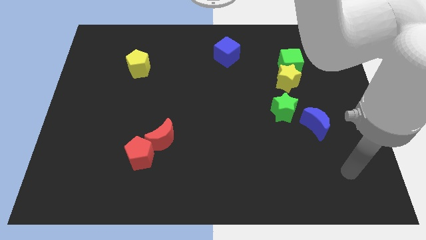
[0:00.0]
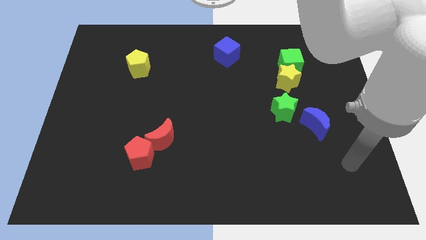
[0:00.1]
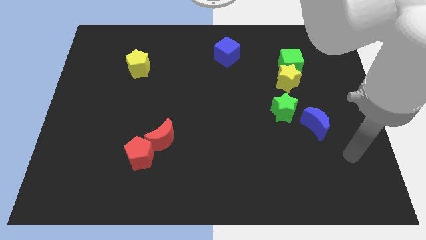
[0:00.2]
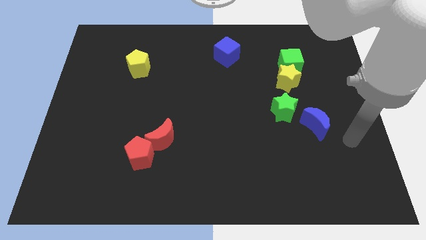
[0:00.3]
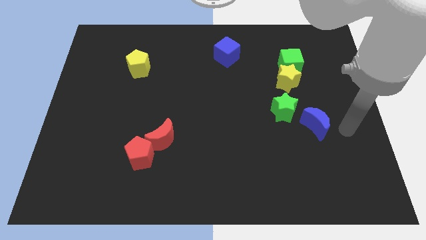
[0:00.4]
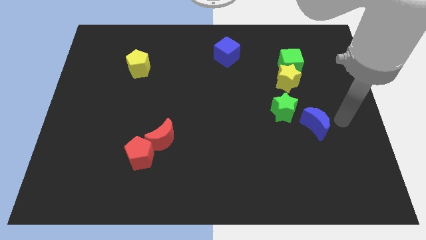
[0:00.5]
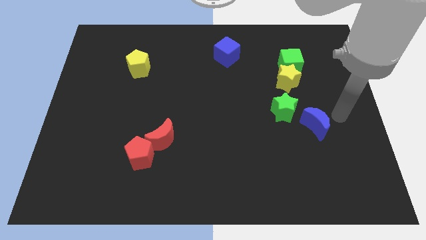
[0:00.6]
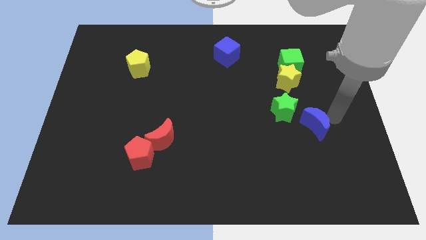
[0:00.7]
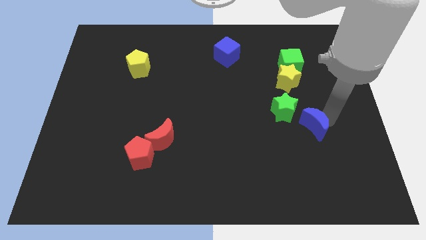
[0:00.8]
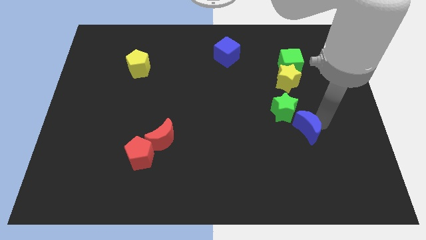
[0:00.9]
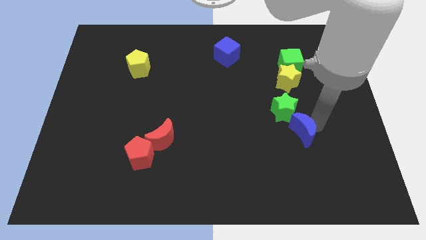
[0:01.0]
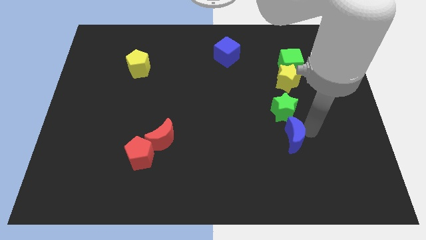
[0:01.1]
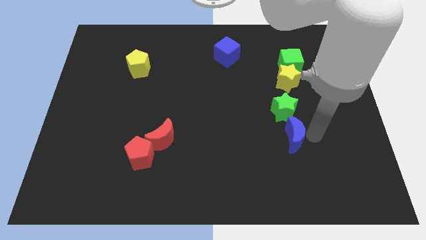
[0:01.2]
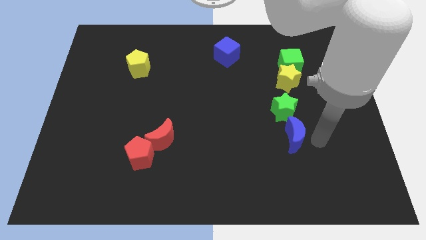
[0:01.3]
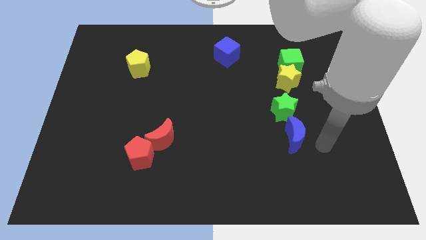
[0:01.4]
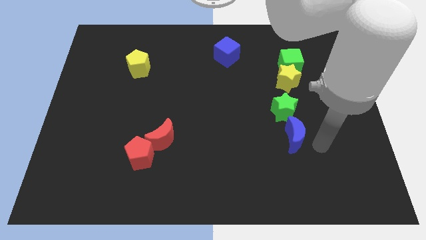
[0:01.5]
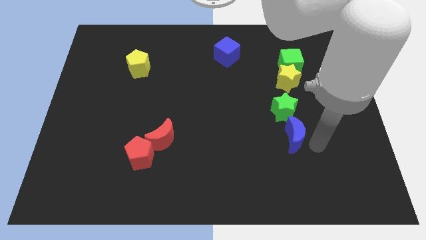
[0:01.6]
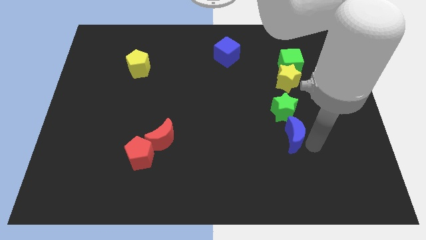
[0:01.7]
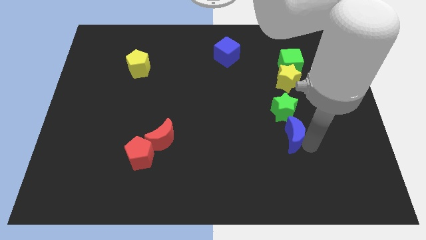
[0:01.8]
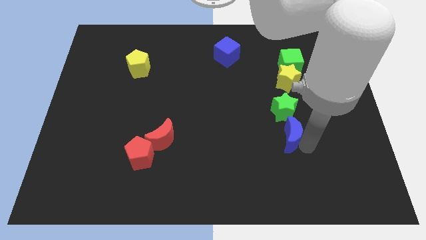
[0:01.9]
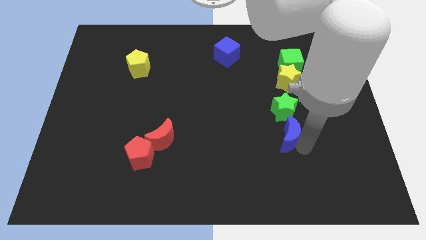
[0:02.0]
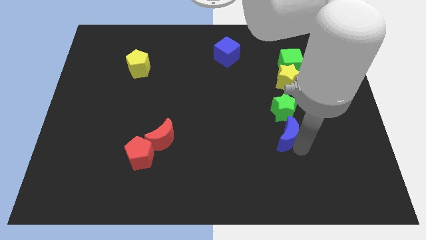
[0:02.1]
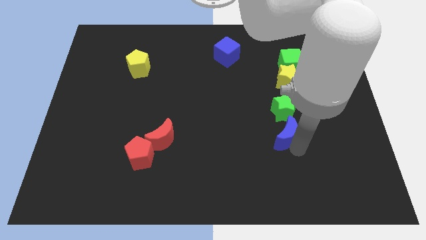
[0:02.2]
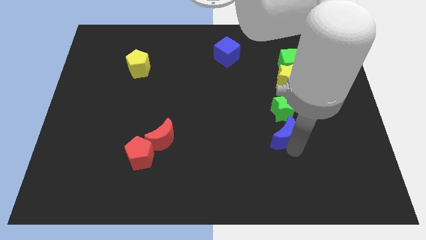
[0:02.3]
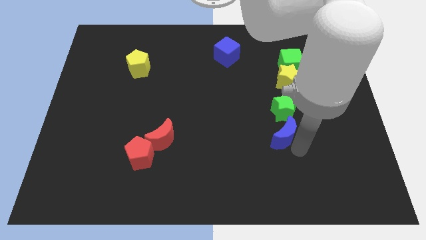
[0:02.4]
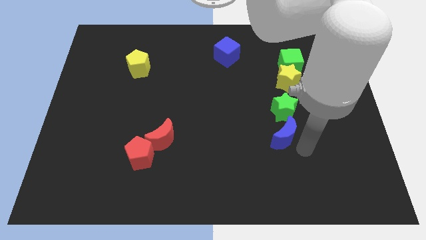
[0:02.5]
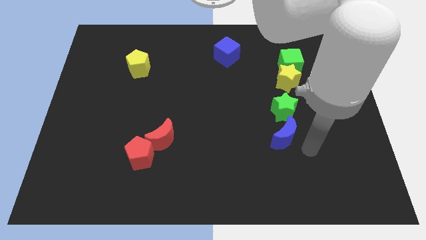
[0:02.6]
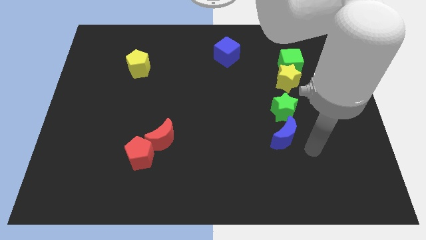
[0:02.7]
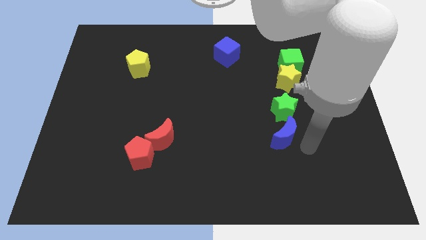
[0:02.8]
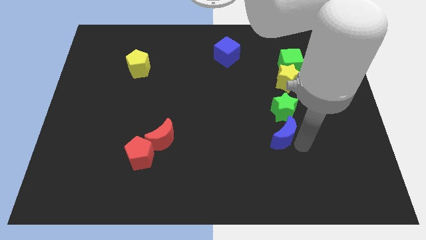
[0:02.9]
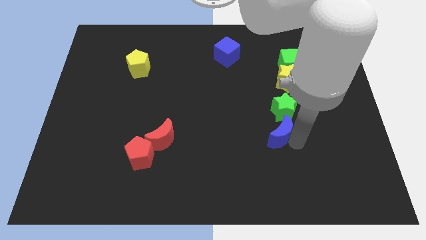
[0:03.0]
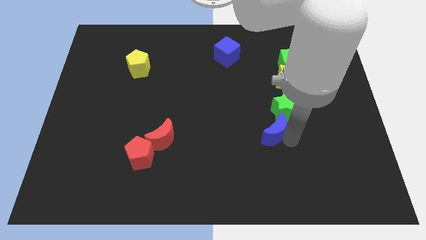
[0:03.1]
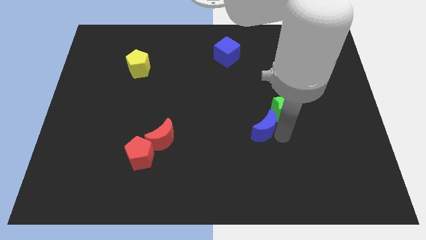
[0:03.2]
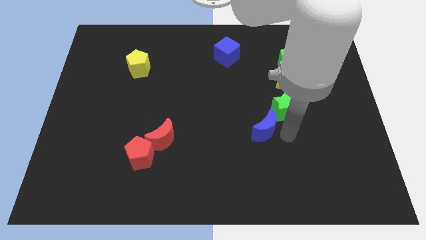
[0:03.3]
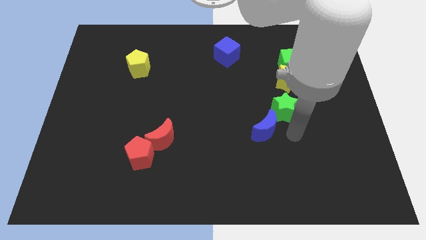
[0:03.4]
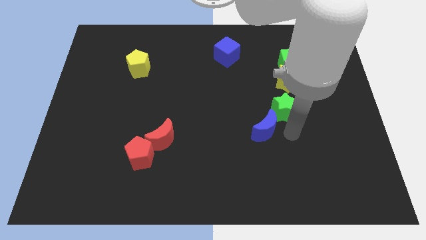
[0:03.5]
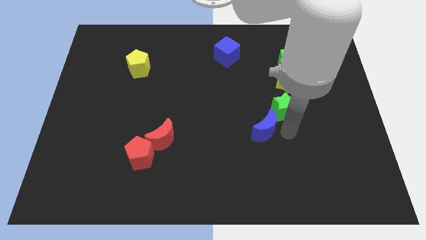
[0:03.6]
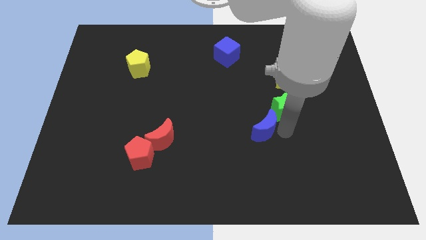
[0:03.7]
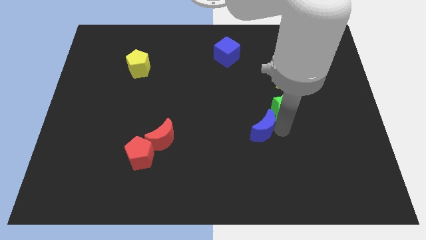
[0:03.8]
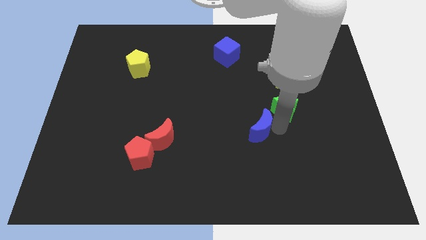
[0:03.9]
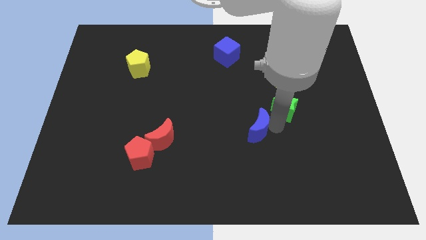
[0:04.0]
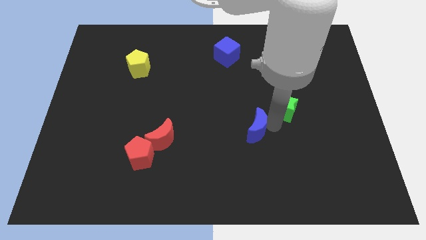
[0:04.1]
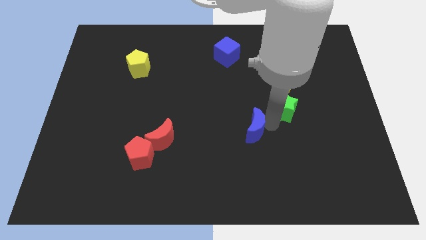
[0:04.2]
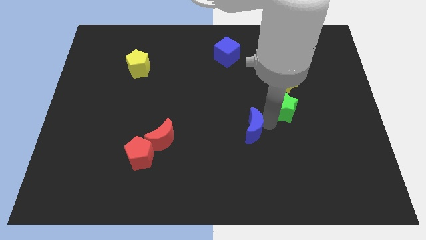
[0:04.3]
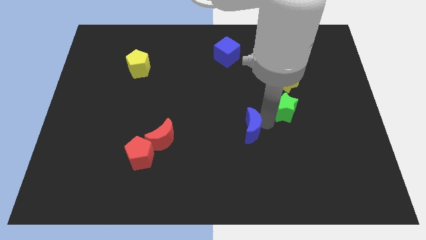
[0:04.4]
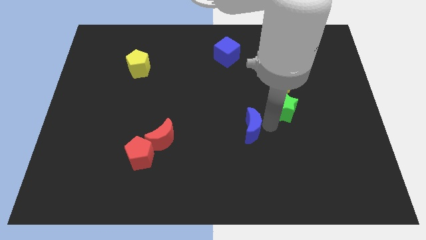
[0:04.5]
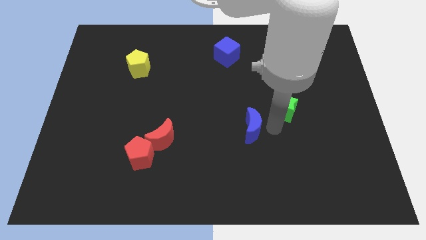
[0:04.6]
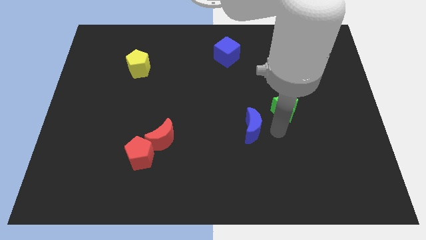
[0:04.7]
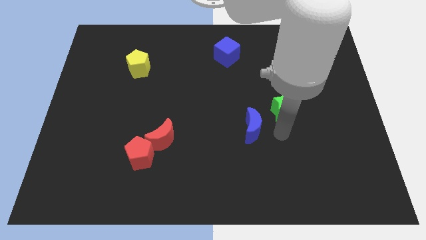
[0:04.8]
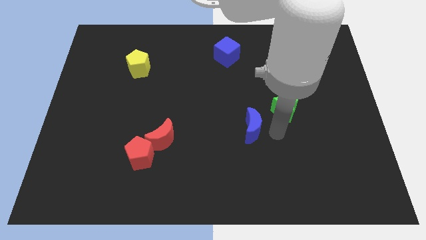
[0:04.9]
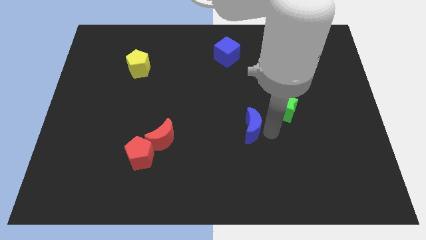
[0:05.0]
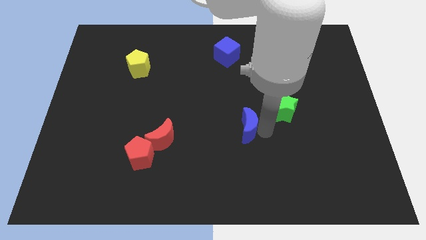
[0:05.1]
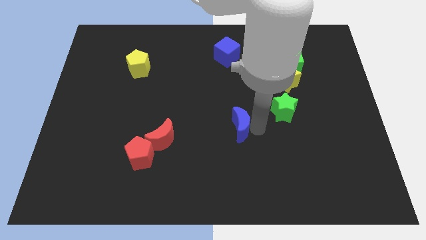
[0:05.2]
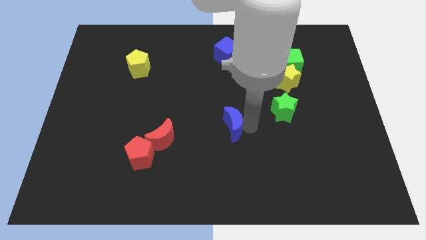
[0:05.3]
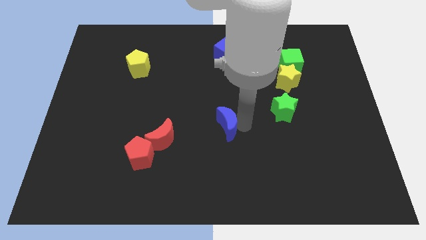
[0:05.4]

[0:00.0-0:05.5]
push the blue moon to the left

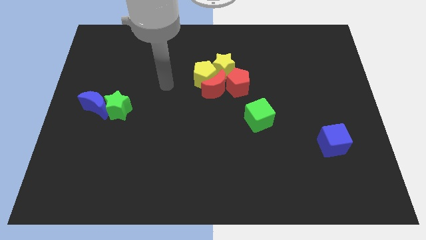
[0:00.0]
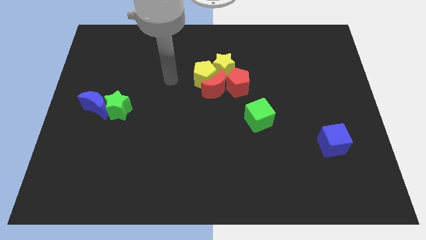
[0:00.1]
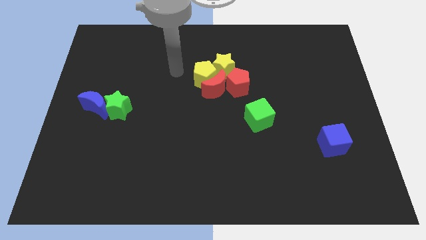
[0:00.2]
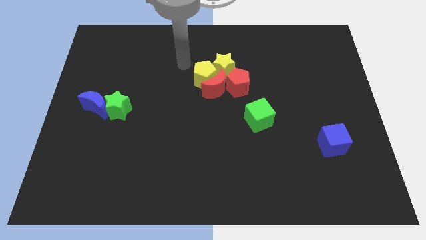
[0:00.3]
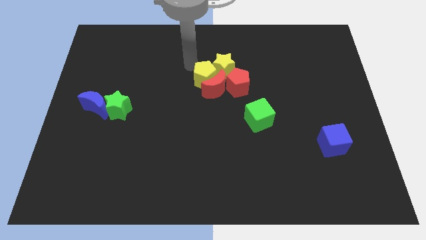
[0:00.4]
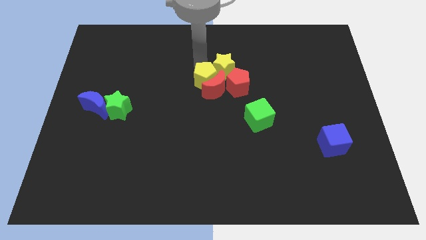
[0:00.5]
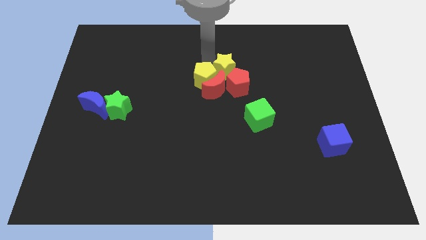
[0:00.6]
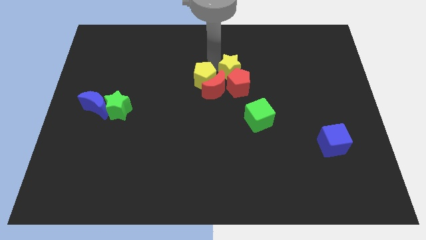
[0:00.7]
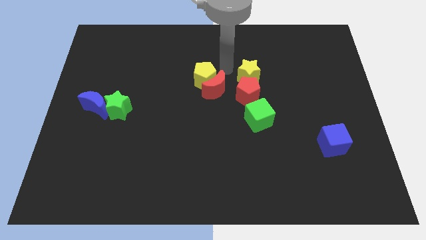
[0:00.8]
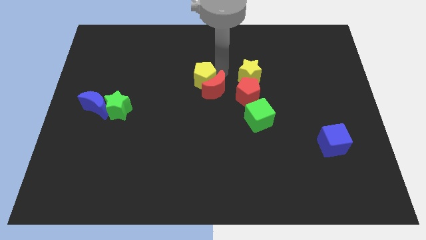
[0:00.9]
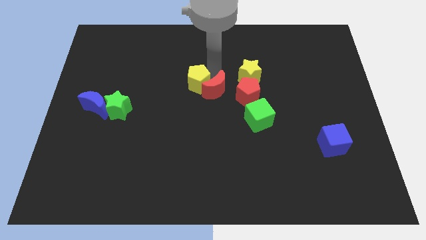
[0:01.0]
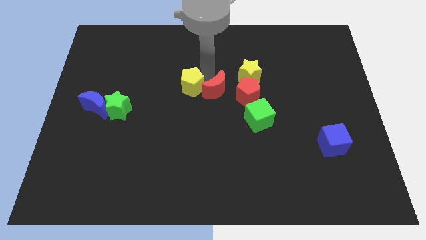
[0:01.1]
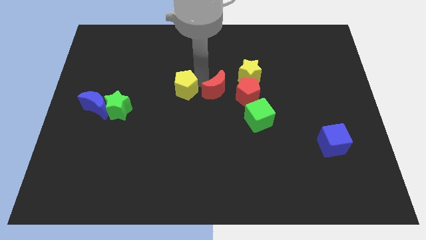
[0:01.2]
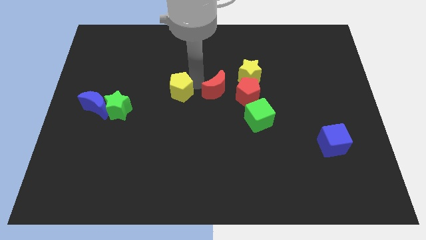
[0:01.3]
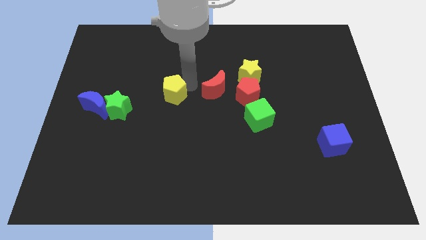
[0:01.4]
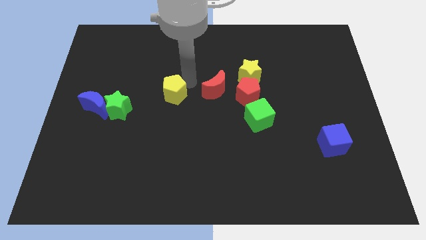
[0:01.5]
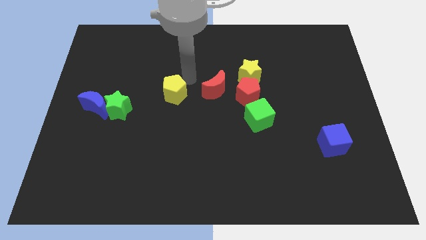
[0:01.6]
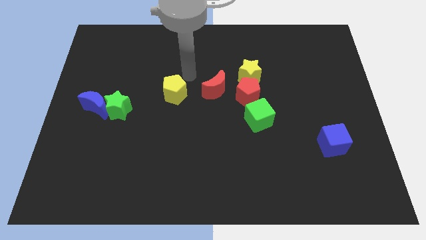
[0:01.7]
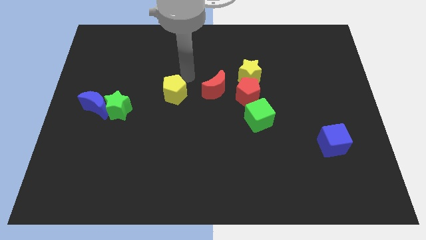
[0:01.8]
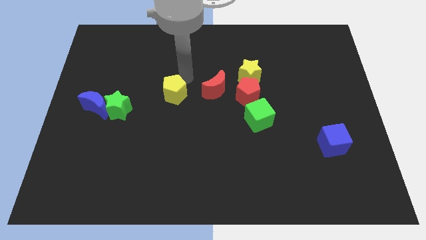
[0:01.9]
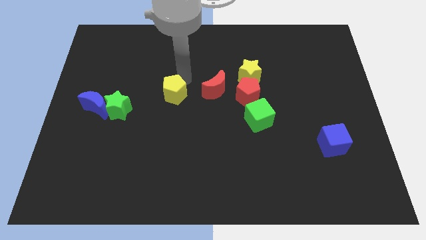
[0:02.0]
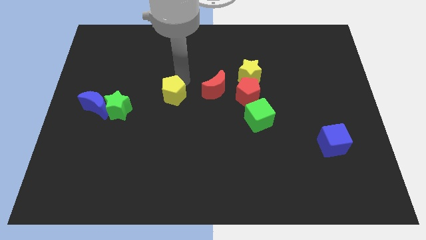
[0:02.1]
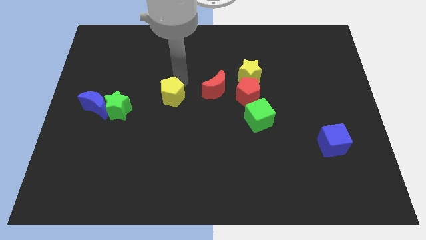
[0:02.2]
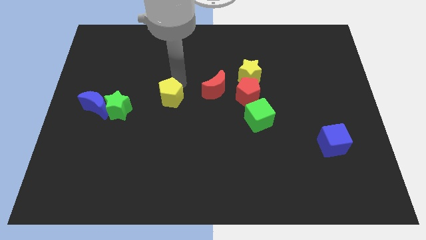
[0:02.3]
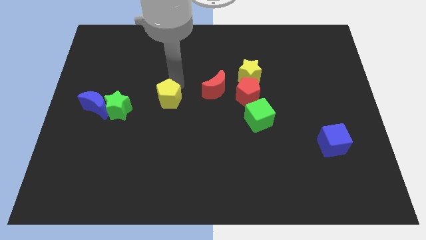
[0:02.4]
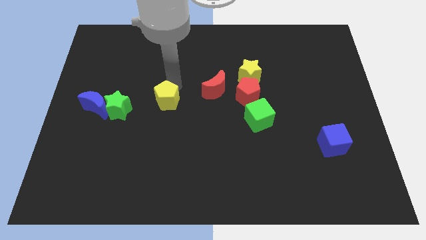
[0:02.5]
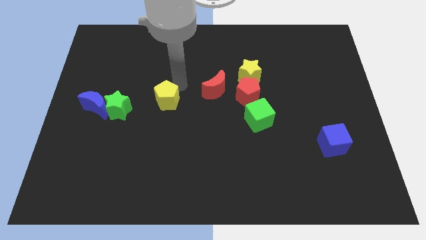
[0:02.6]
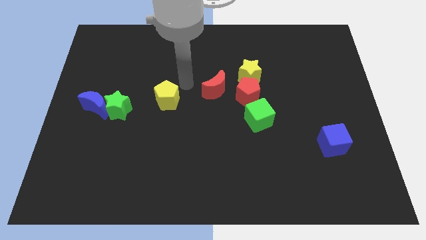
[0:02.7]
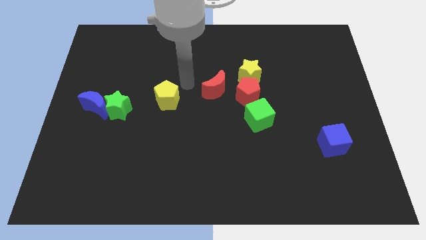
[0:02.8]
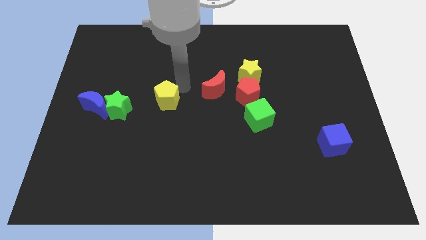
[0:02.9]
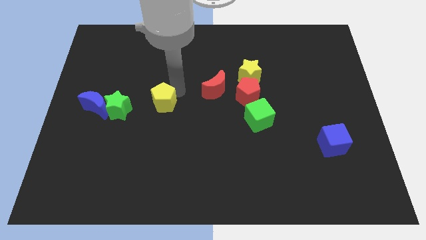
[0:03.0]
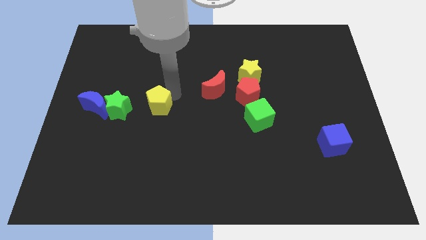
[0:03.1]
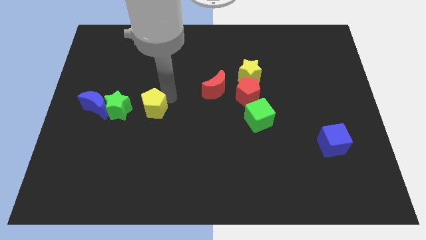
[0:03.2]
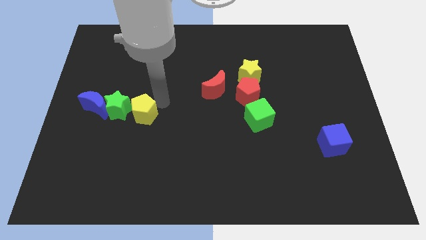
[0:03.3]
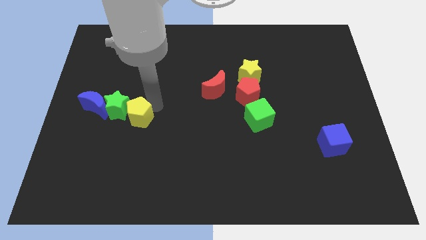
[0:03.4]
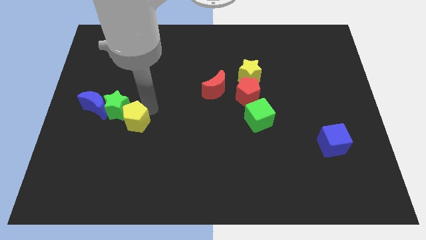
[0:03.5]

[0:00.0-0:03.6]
move the yellow pentagon down and left diagonally
